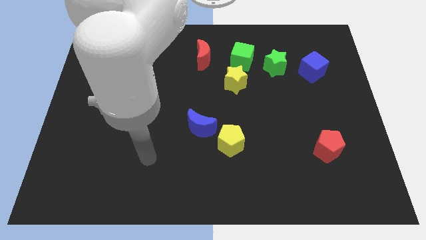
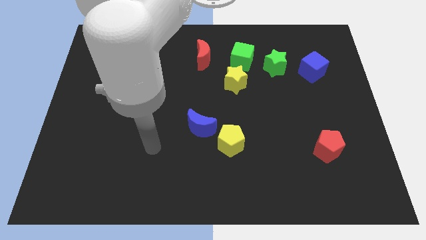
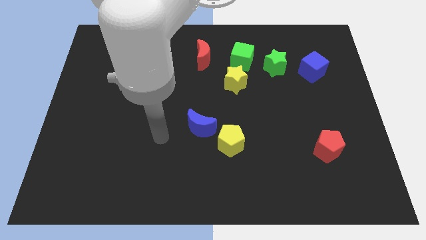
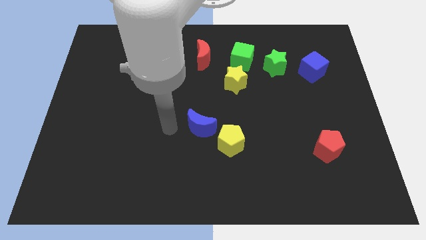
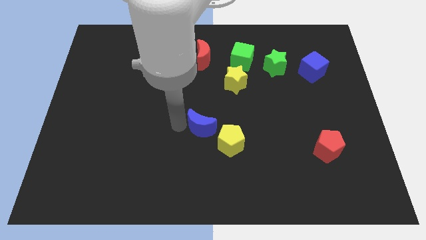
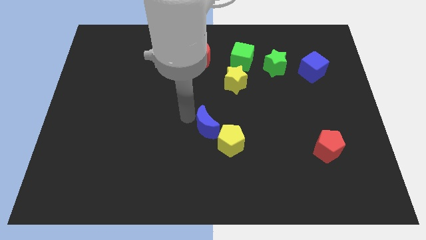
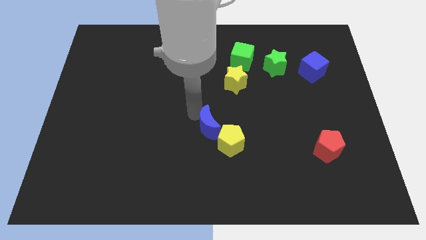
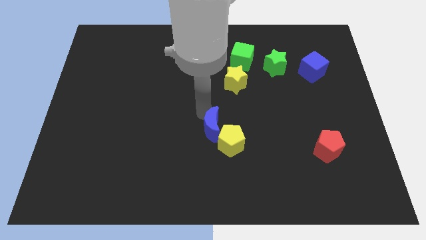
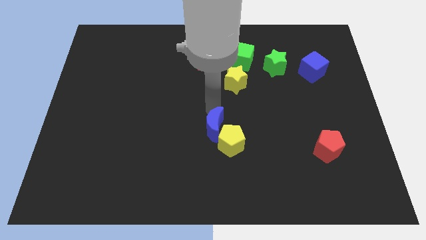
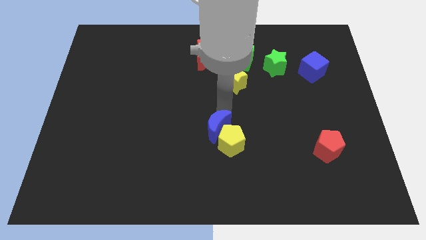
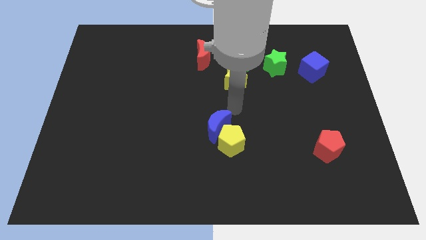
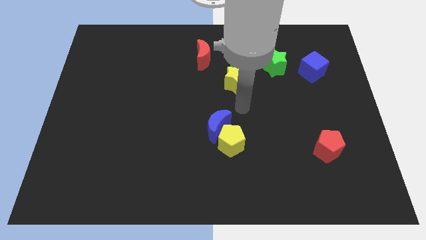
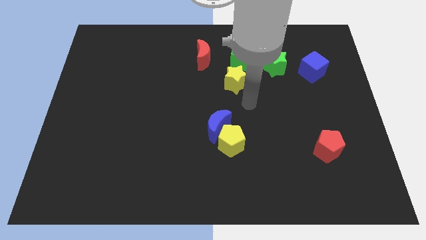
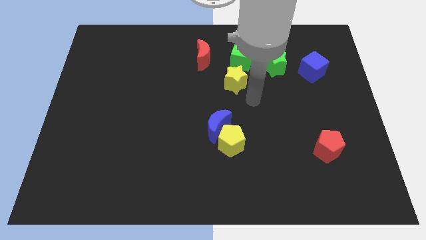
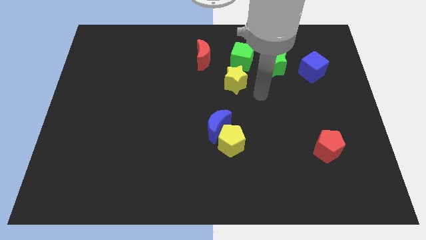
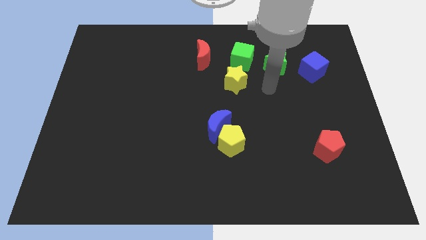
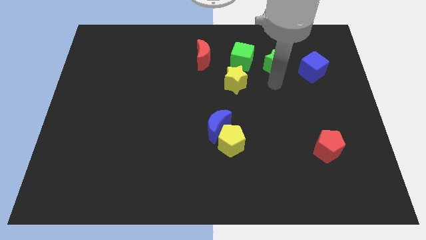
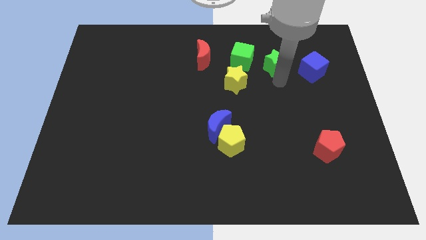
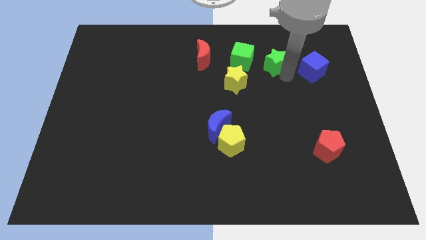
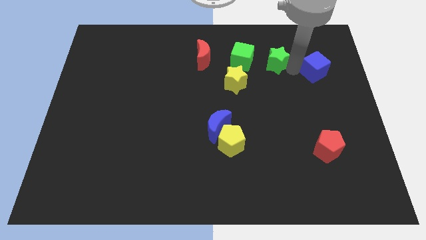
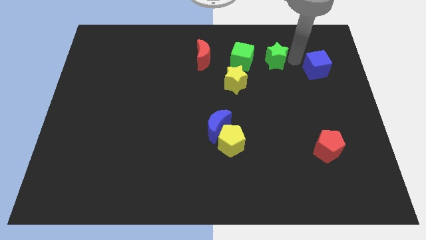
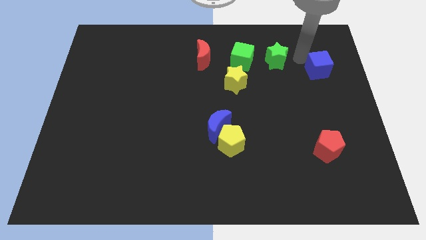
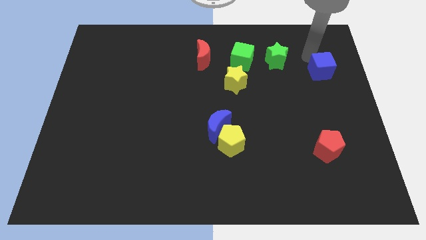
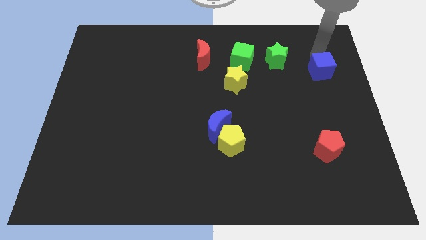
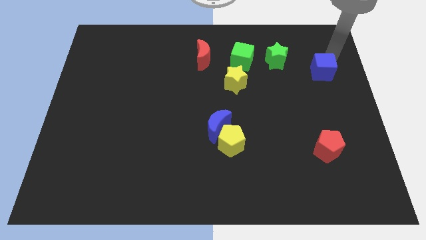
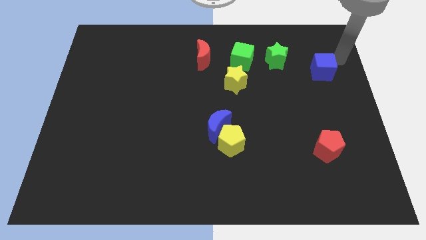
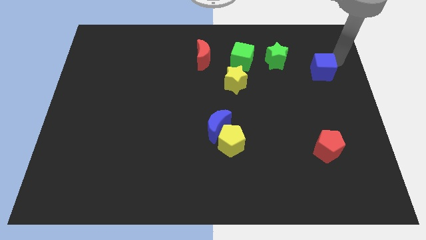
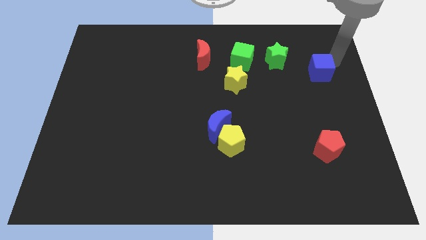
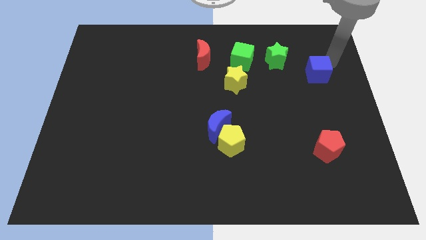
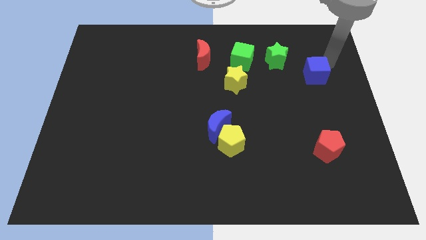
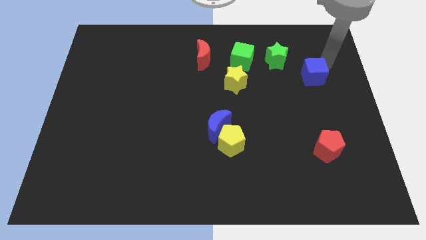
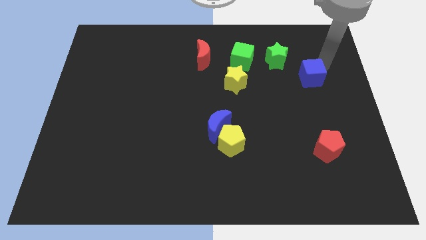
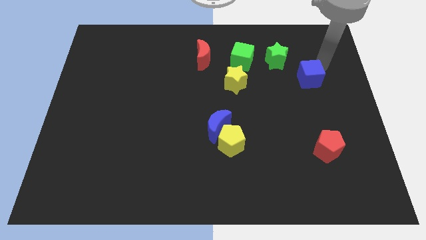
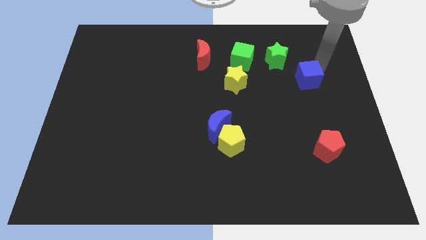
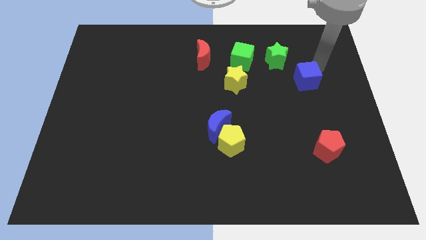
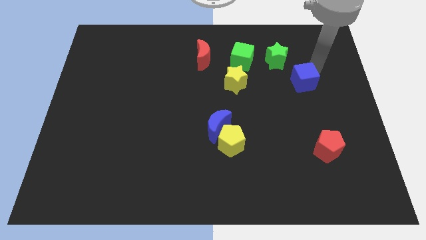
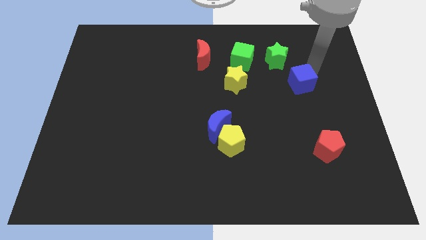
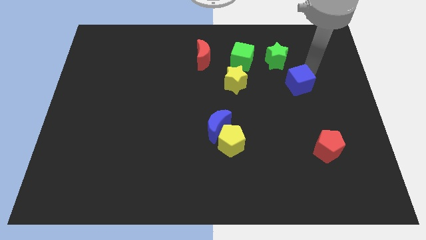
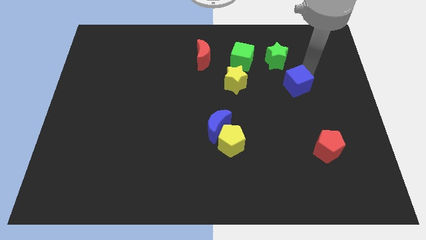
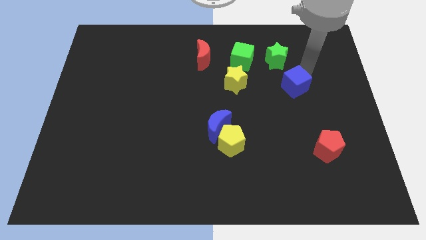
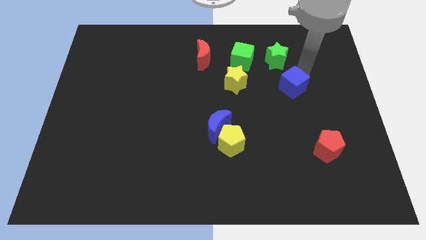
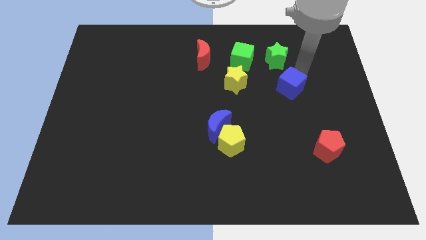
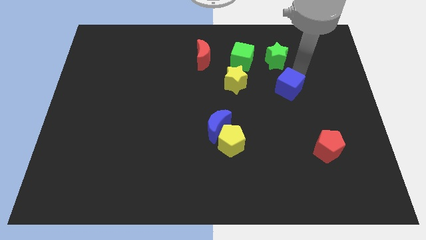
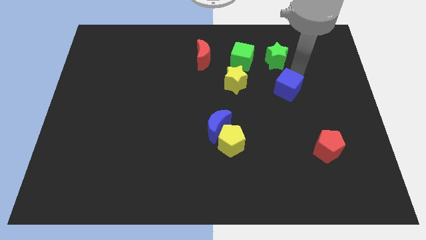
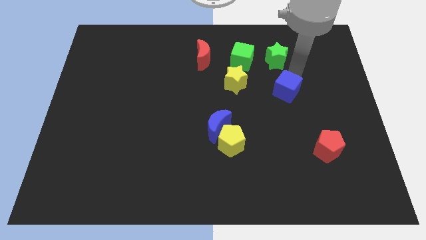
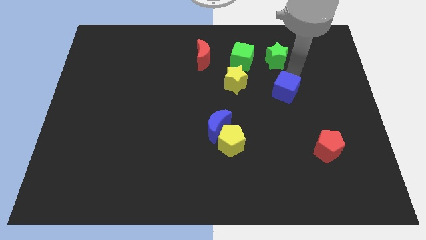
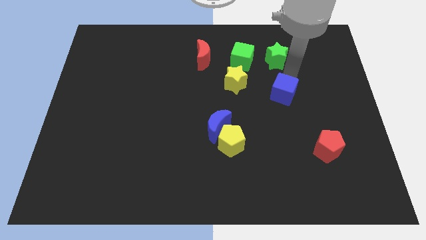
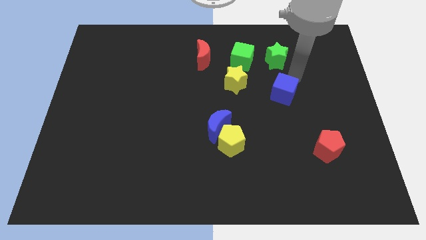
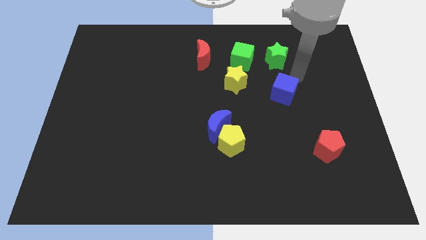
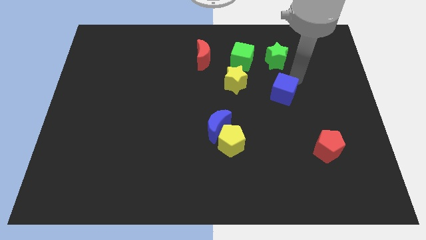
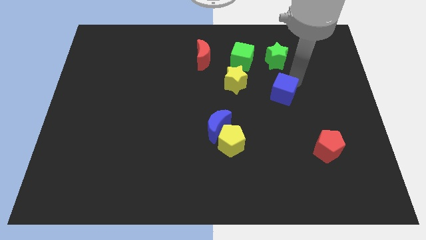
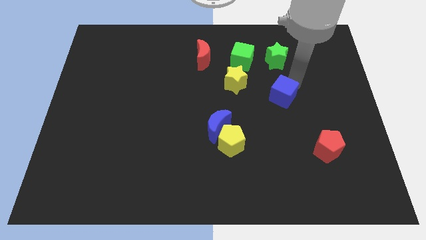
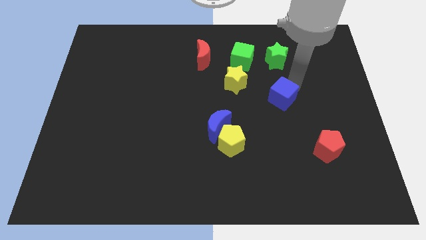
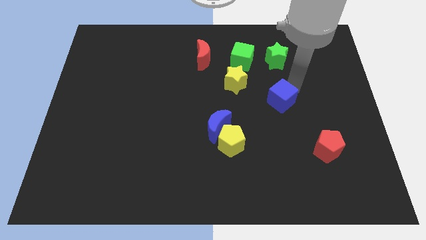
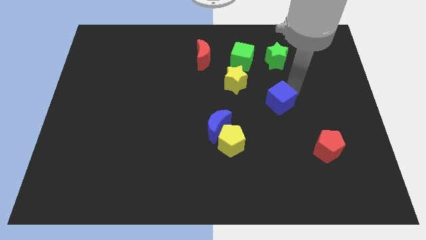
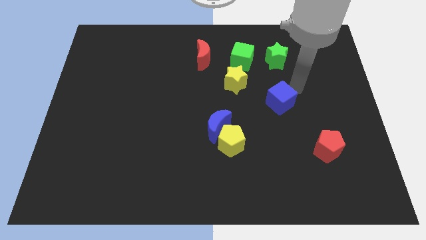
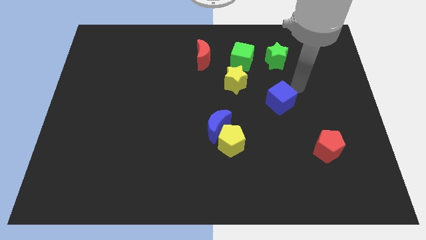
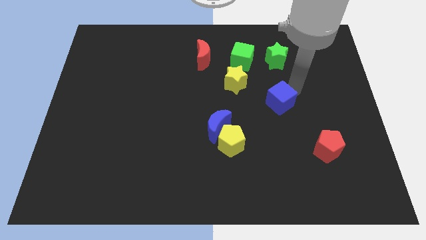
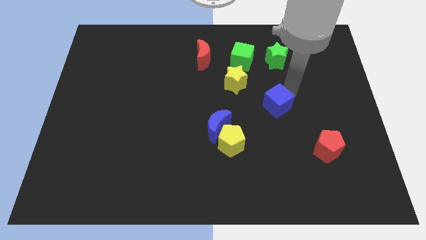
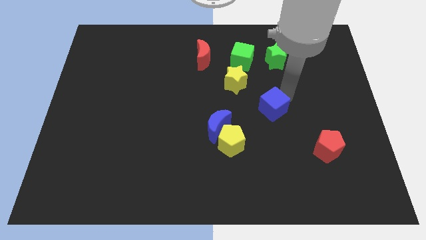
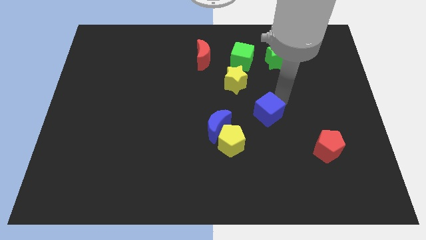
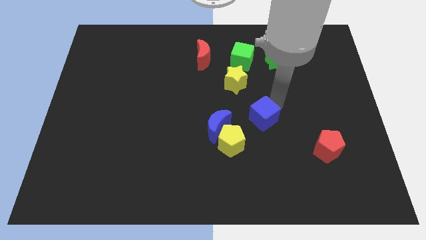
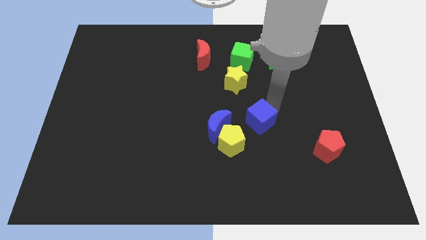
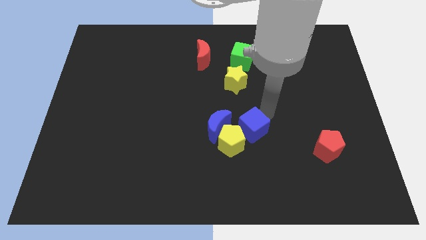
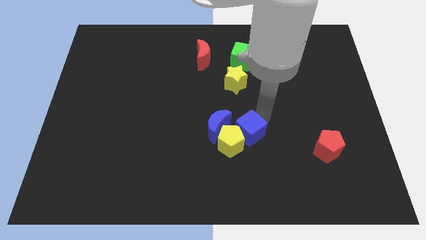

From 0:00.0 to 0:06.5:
move the blue cube close to the yellow pentagon

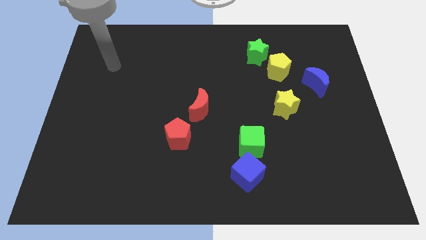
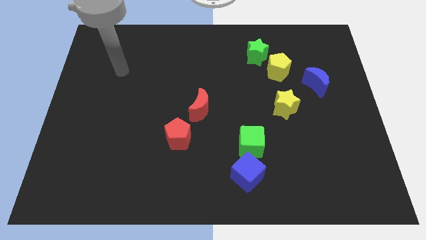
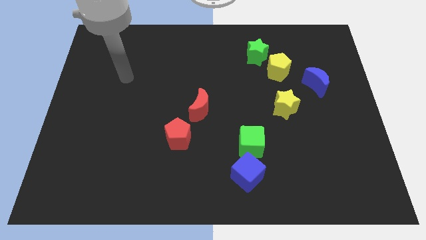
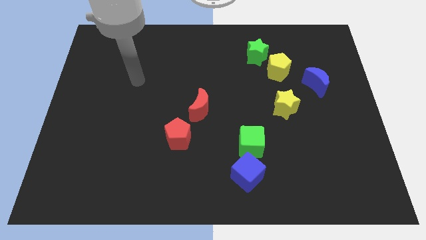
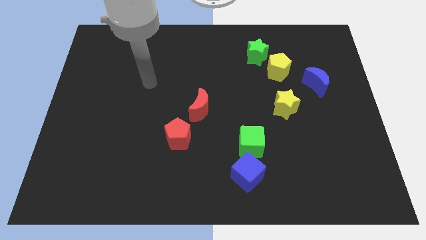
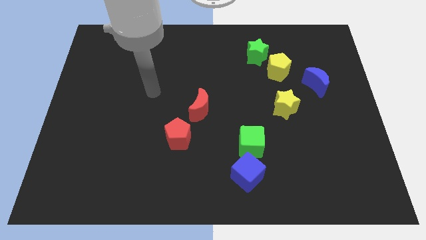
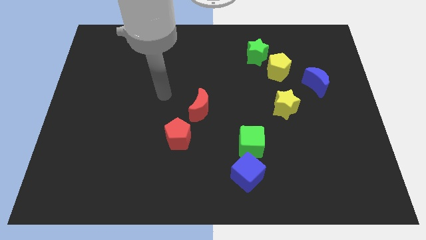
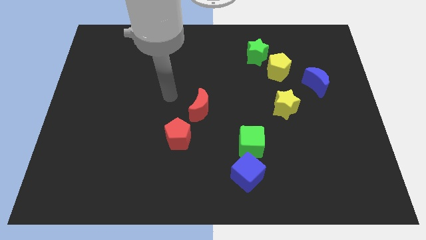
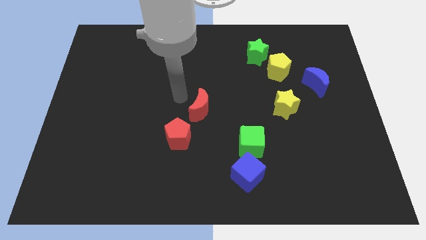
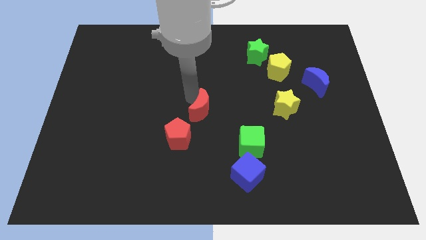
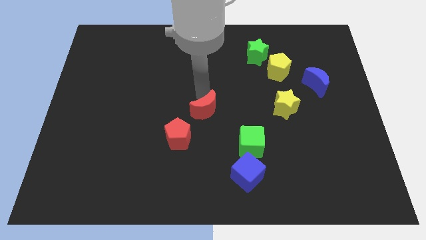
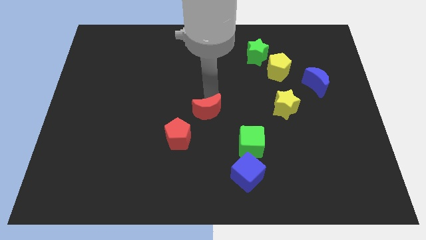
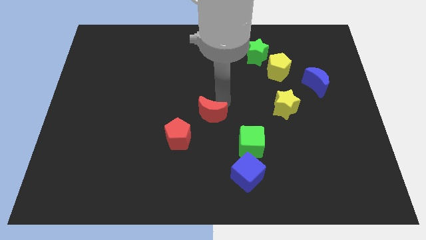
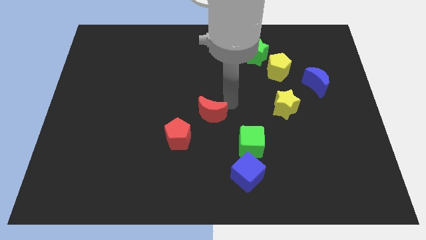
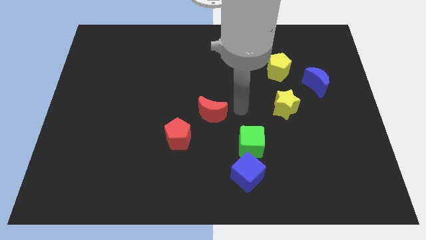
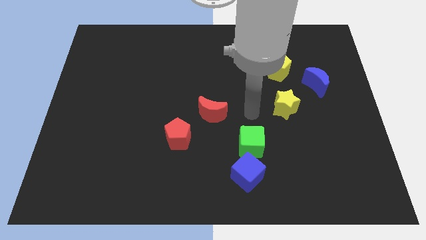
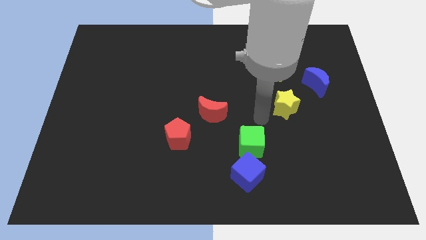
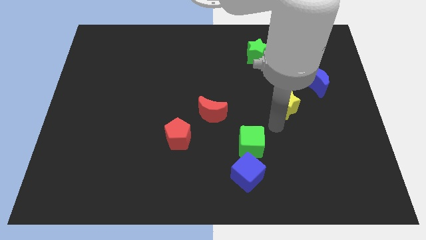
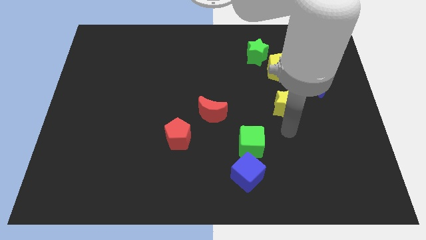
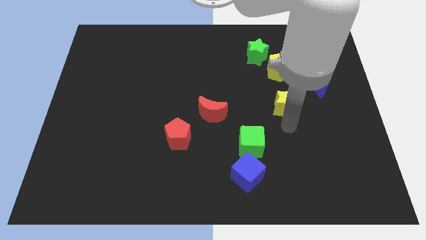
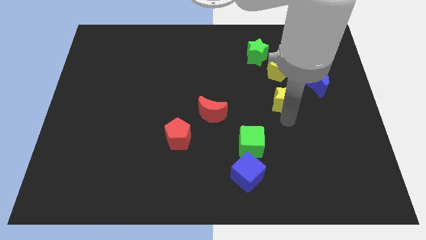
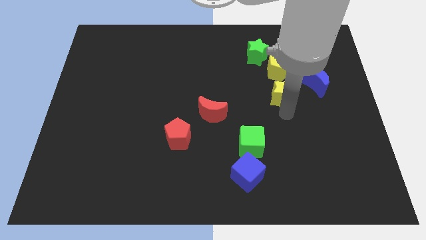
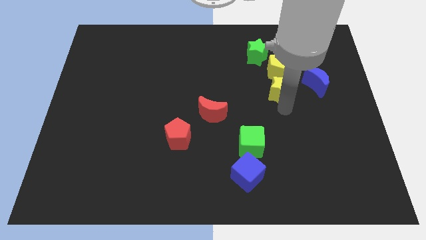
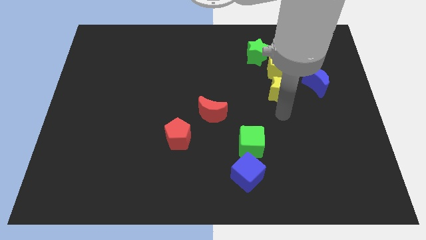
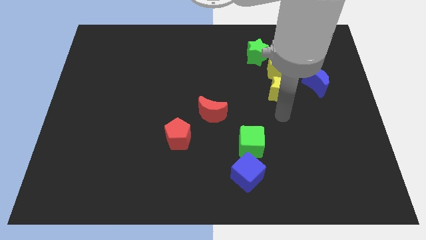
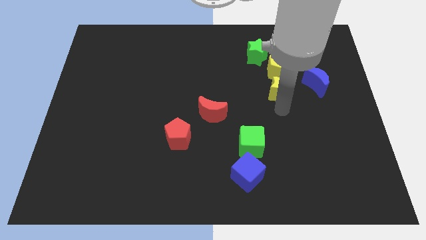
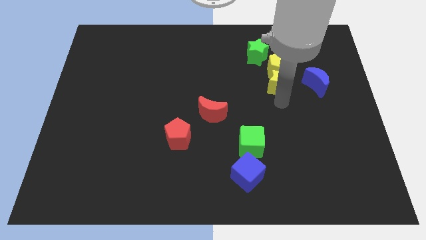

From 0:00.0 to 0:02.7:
put the yellow star to the yellow pentagon
